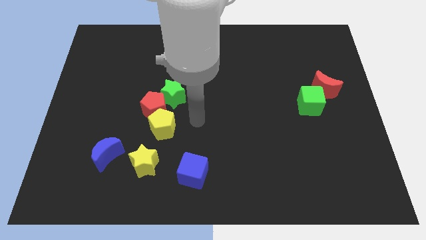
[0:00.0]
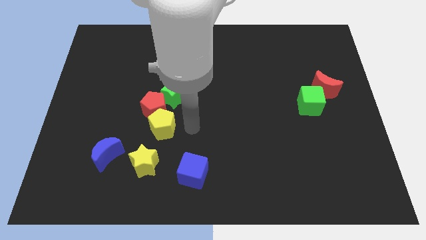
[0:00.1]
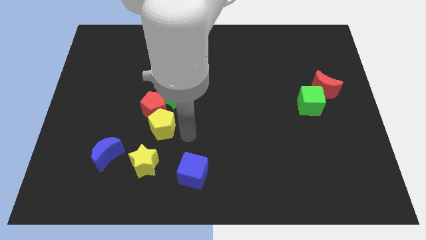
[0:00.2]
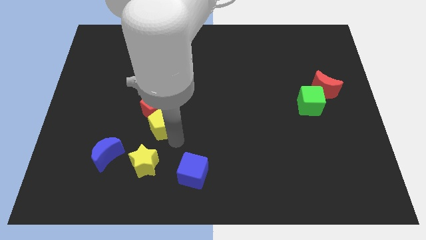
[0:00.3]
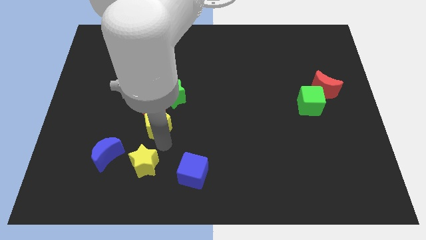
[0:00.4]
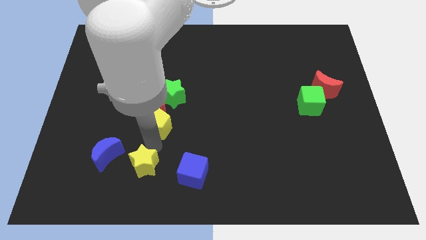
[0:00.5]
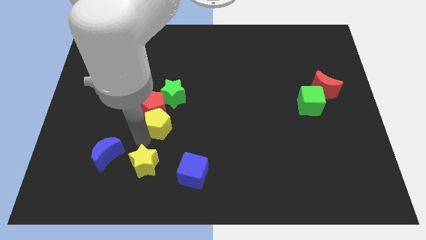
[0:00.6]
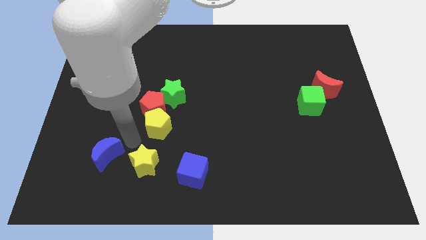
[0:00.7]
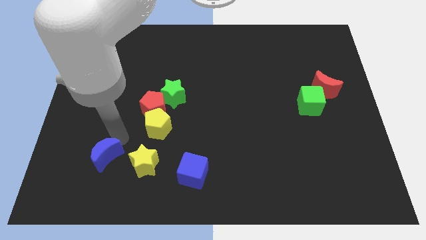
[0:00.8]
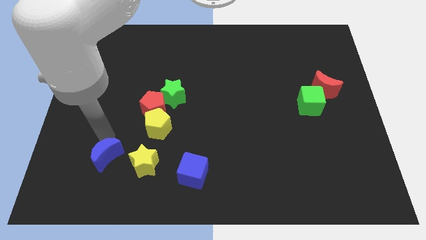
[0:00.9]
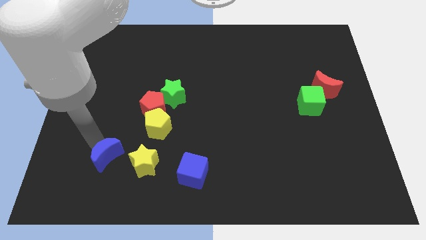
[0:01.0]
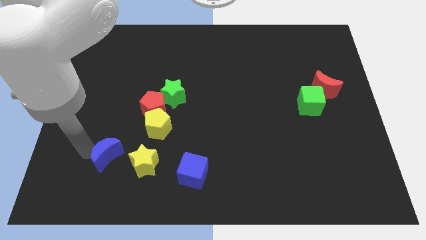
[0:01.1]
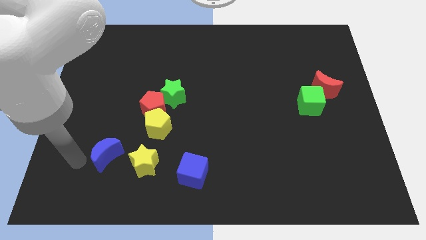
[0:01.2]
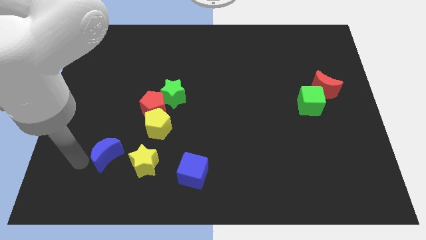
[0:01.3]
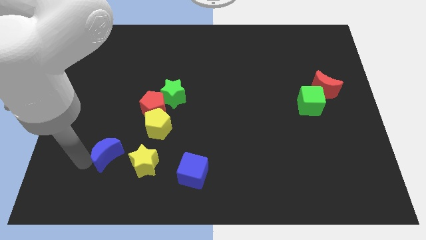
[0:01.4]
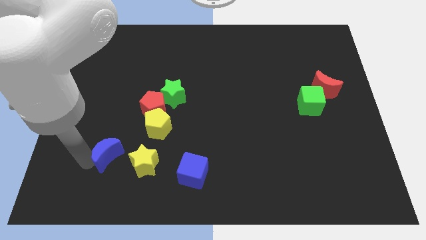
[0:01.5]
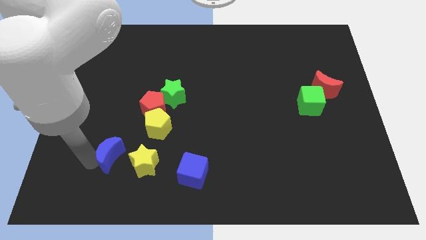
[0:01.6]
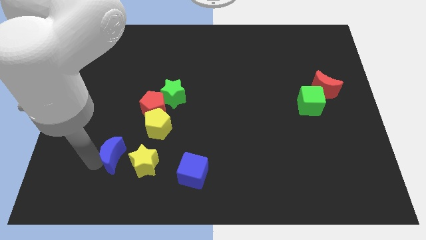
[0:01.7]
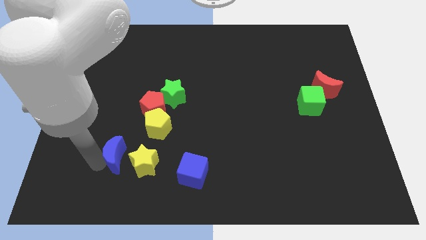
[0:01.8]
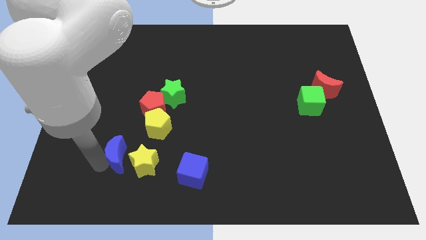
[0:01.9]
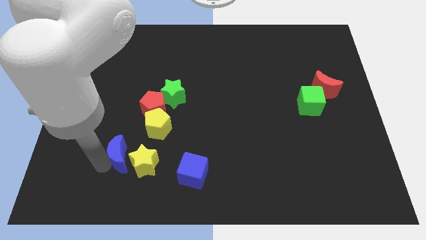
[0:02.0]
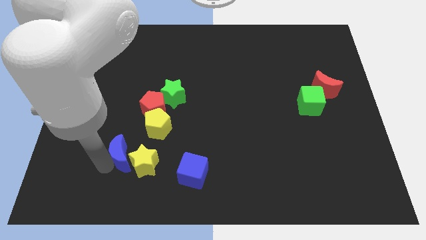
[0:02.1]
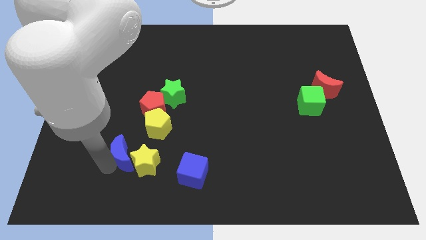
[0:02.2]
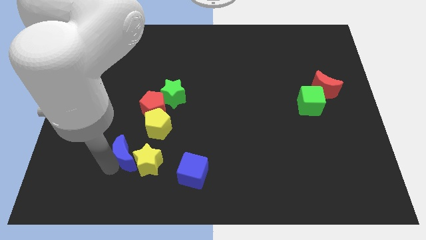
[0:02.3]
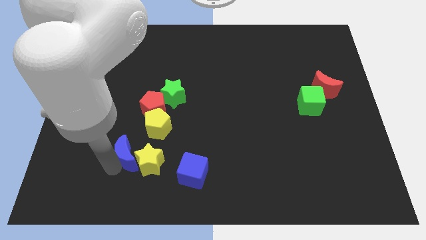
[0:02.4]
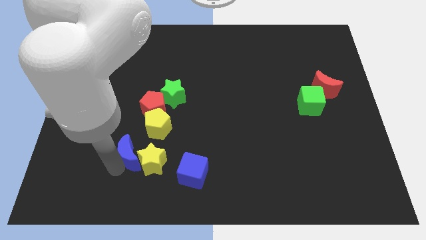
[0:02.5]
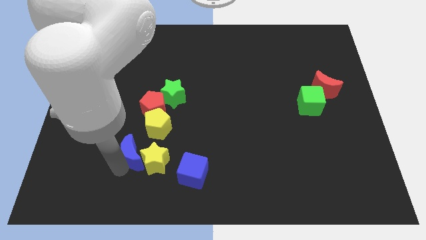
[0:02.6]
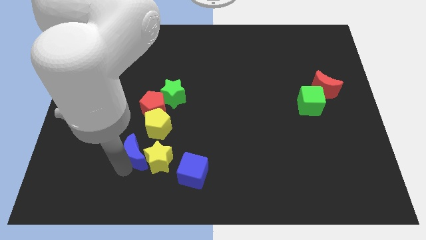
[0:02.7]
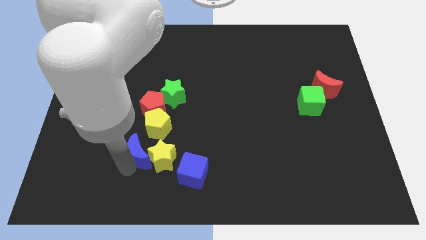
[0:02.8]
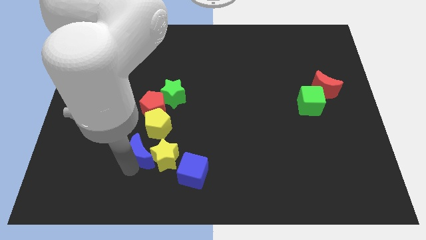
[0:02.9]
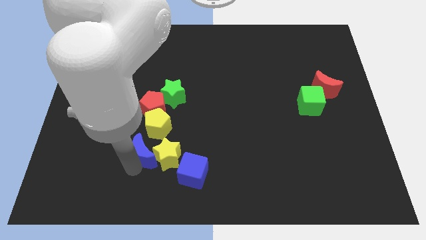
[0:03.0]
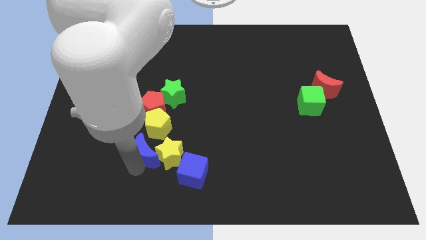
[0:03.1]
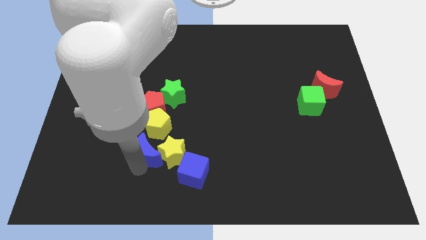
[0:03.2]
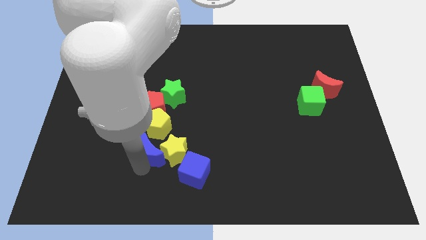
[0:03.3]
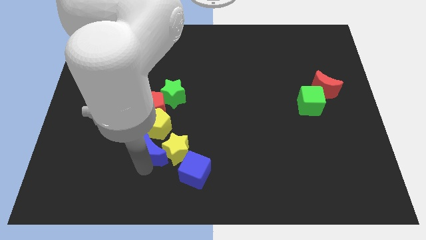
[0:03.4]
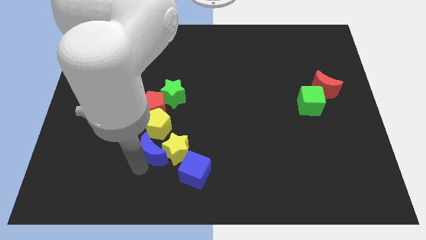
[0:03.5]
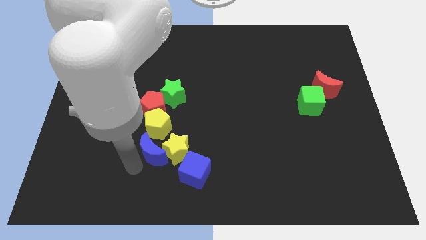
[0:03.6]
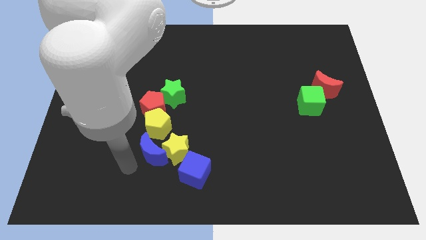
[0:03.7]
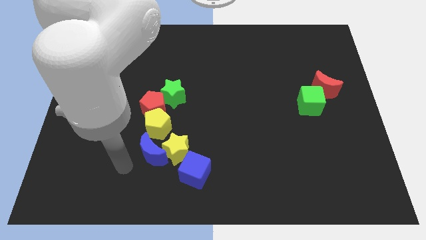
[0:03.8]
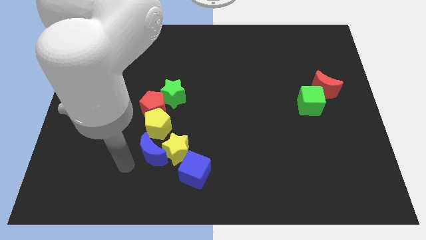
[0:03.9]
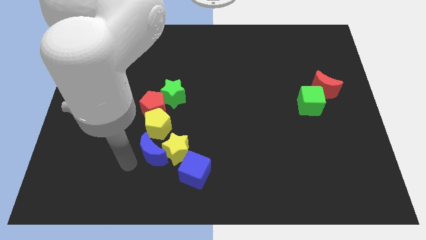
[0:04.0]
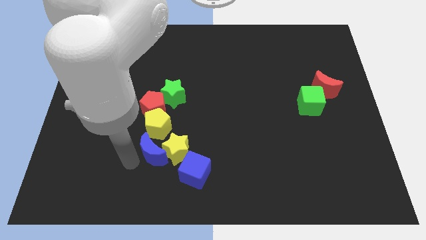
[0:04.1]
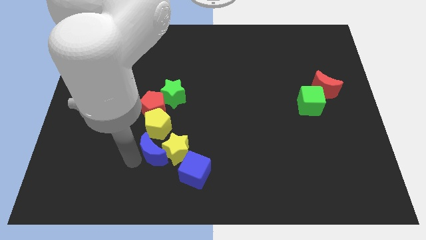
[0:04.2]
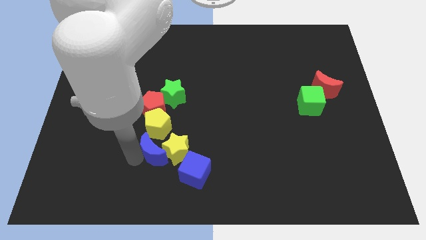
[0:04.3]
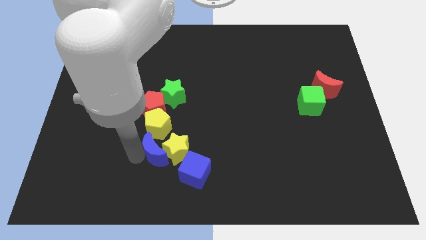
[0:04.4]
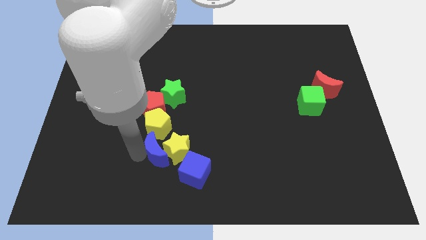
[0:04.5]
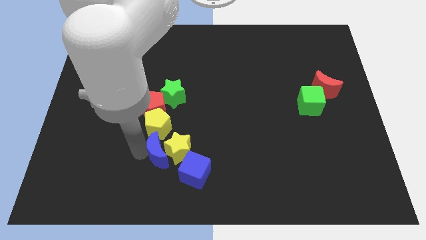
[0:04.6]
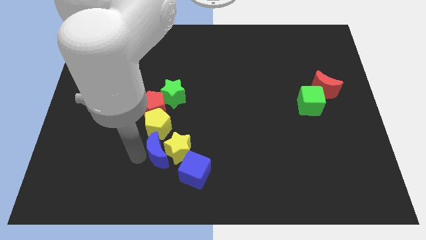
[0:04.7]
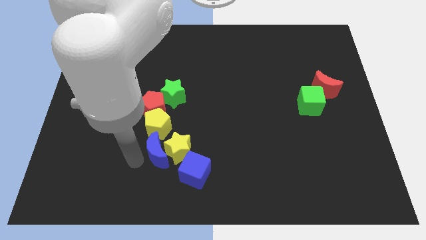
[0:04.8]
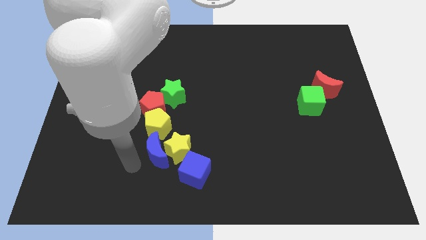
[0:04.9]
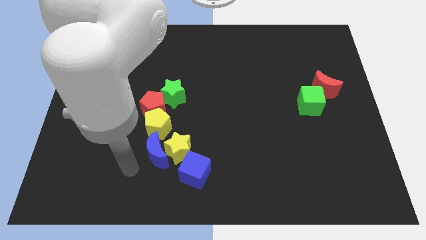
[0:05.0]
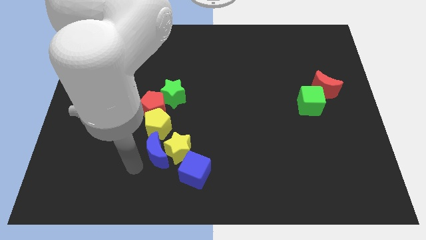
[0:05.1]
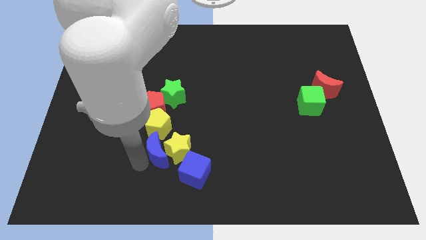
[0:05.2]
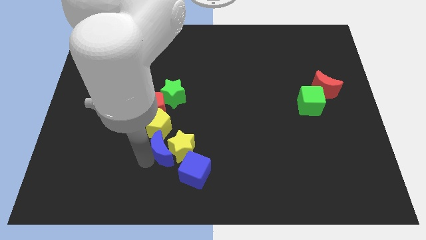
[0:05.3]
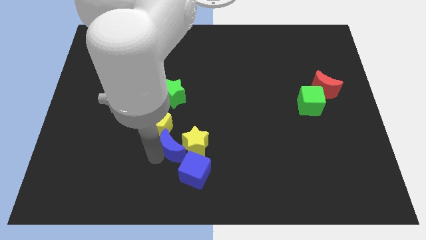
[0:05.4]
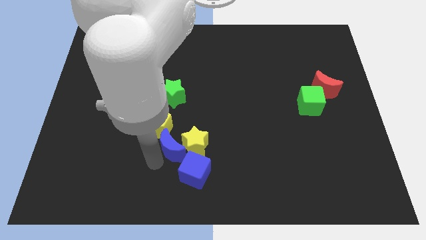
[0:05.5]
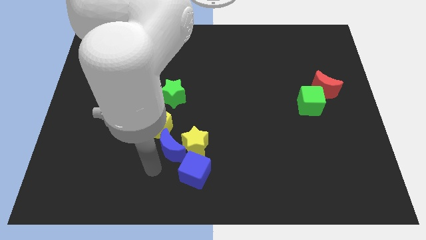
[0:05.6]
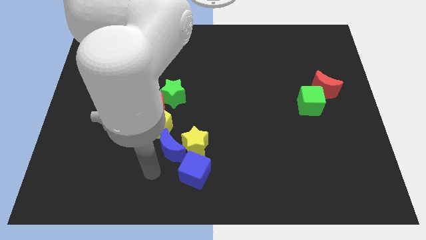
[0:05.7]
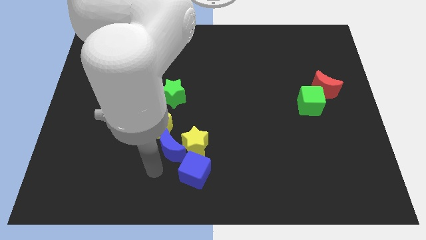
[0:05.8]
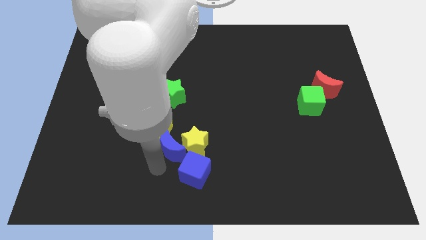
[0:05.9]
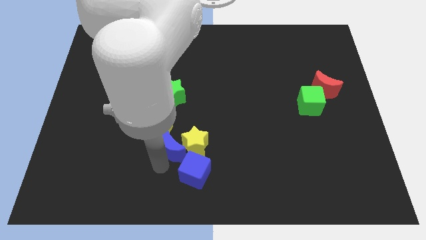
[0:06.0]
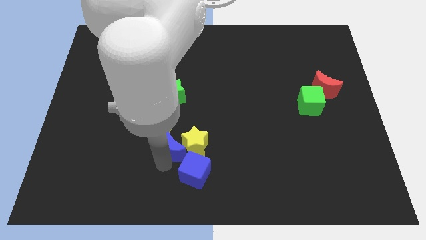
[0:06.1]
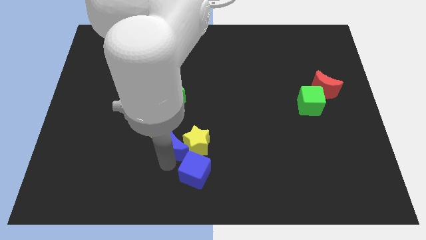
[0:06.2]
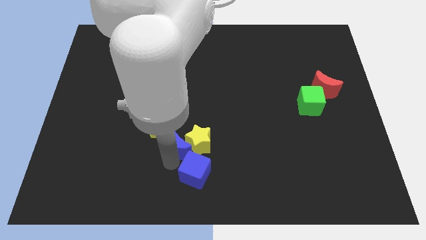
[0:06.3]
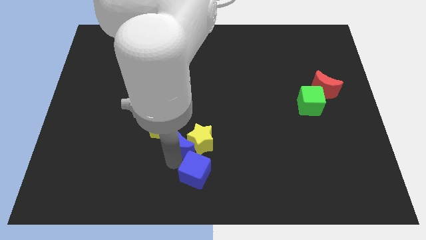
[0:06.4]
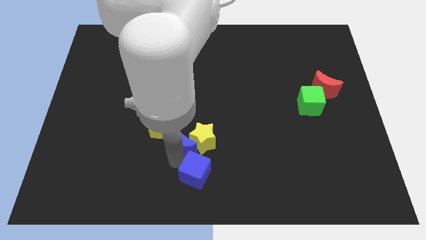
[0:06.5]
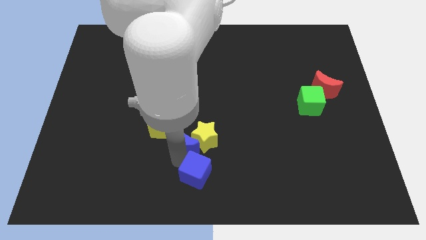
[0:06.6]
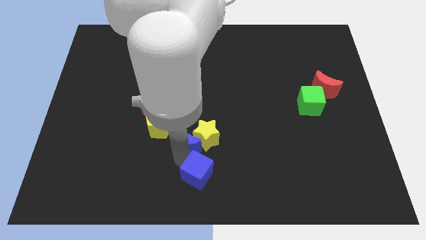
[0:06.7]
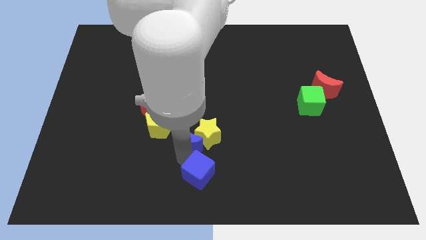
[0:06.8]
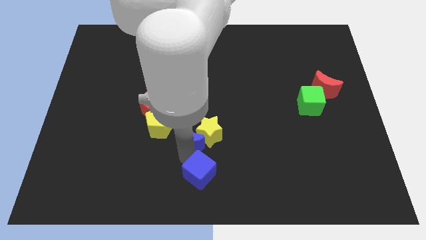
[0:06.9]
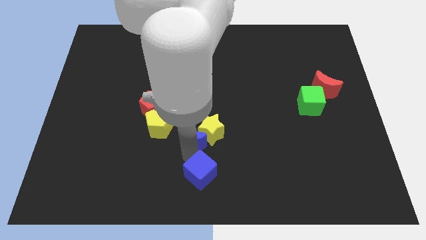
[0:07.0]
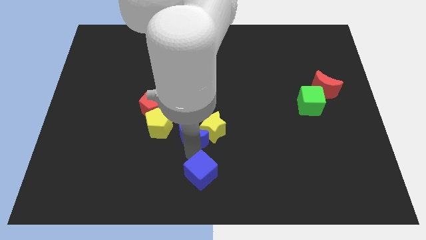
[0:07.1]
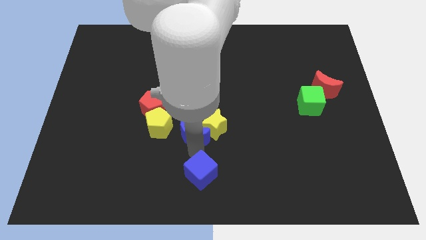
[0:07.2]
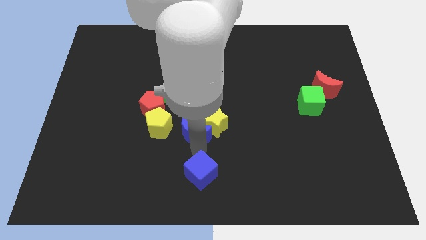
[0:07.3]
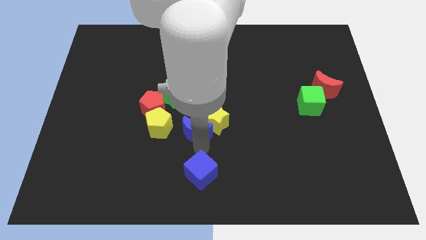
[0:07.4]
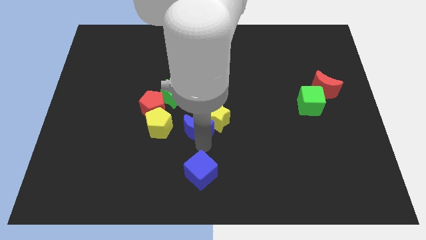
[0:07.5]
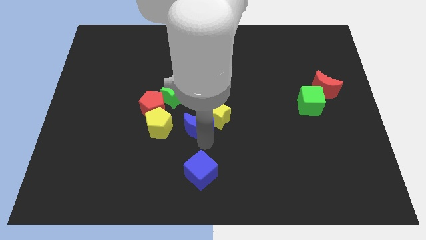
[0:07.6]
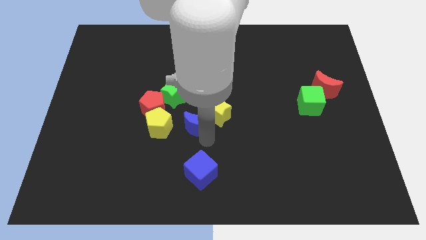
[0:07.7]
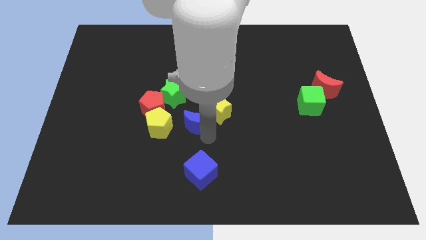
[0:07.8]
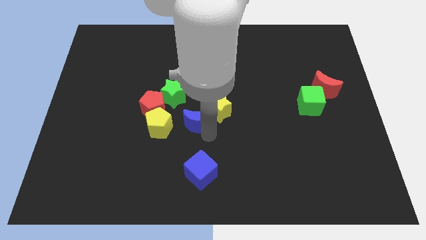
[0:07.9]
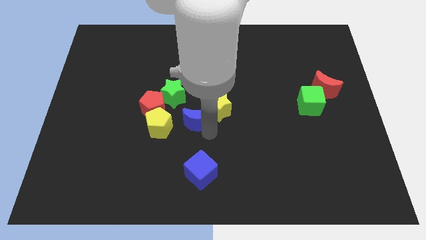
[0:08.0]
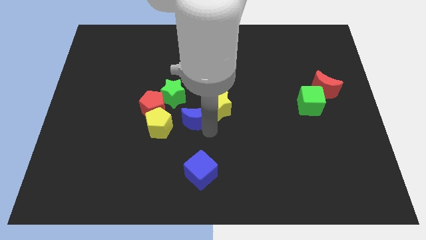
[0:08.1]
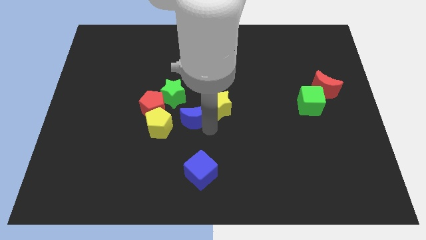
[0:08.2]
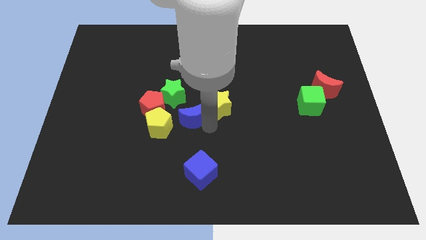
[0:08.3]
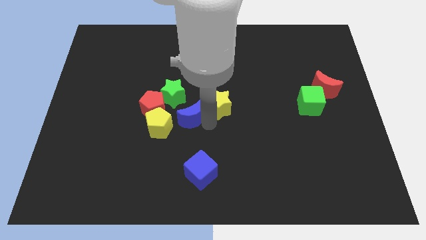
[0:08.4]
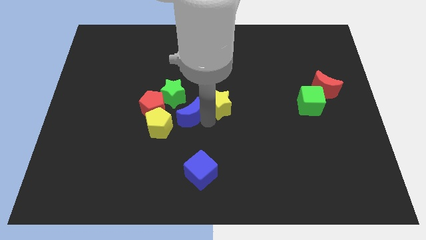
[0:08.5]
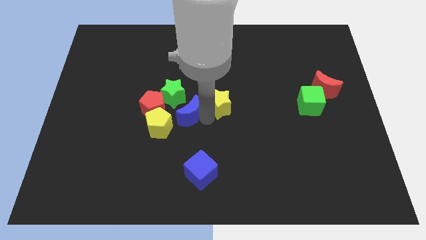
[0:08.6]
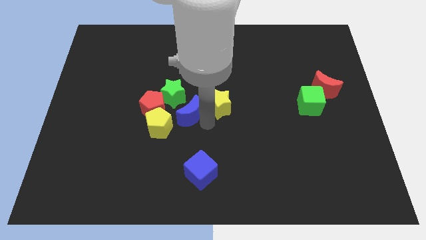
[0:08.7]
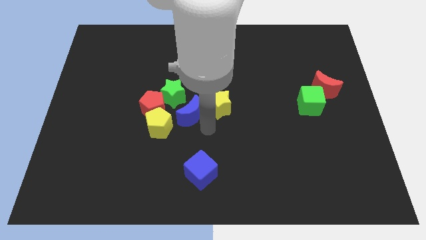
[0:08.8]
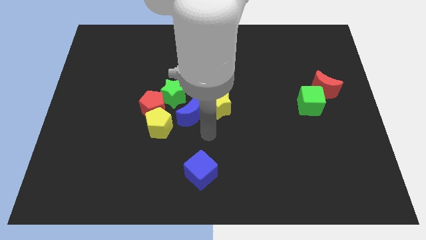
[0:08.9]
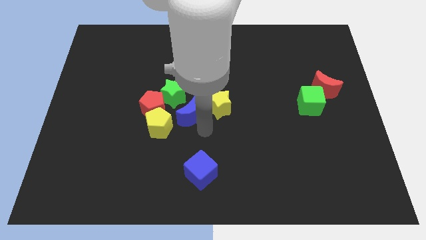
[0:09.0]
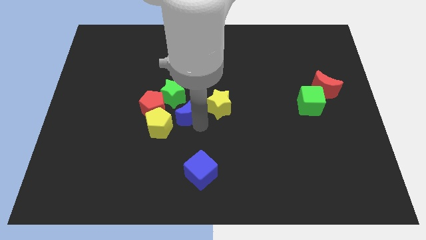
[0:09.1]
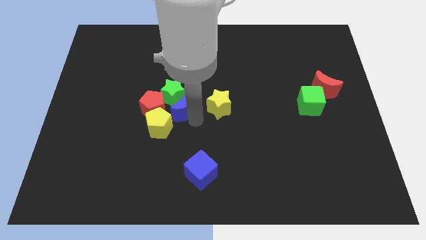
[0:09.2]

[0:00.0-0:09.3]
put the blue moon to the green star
